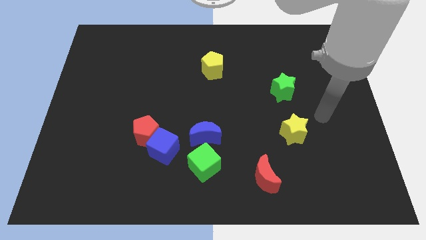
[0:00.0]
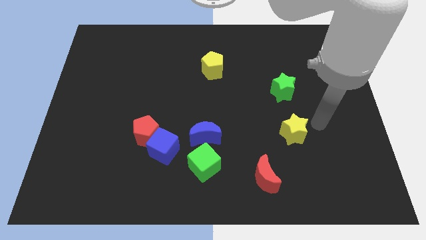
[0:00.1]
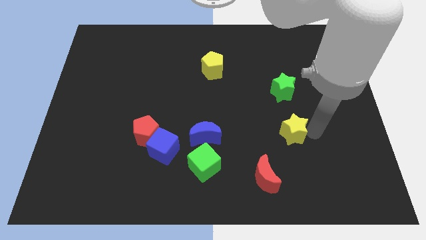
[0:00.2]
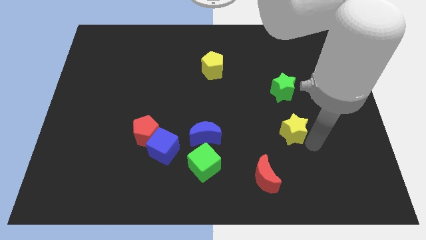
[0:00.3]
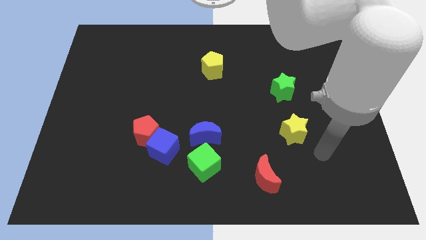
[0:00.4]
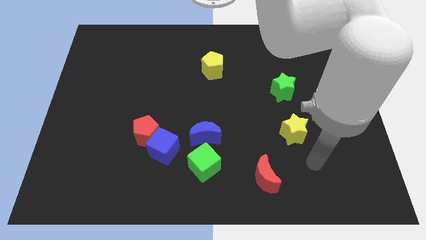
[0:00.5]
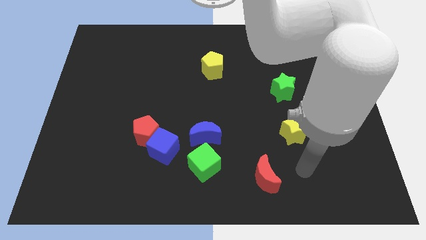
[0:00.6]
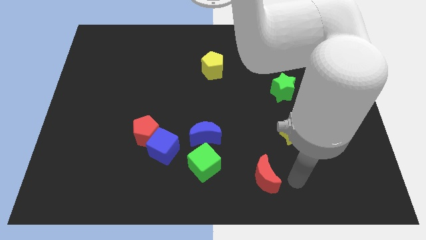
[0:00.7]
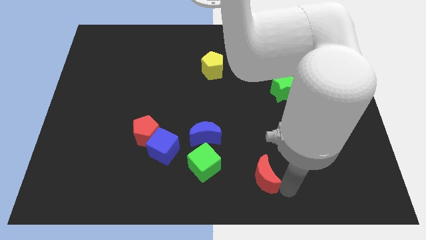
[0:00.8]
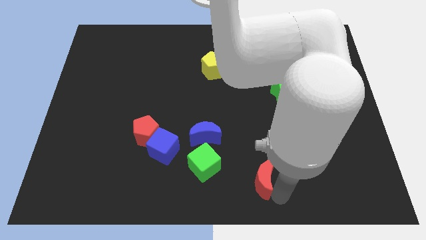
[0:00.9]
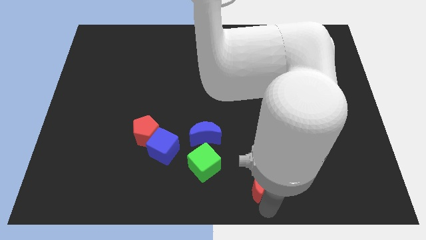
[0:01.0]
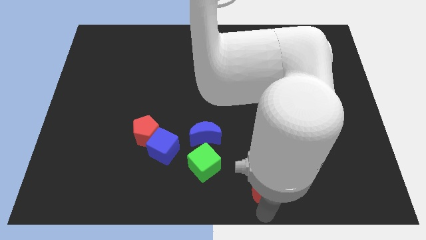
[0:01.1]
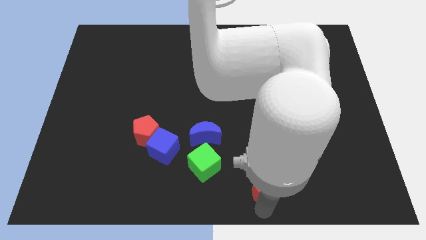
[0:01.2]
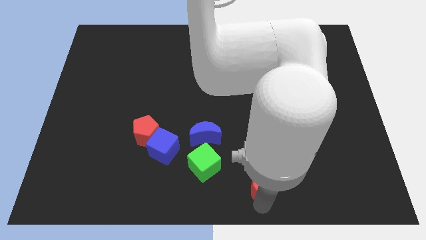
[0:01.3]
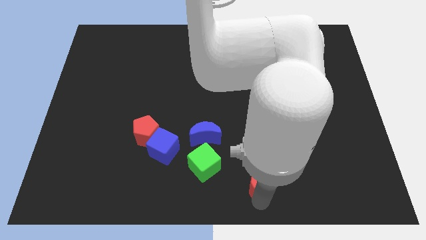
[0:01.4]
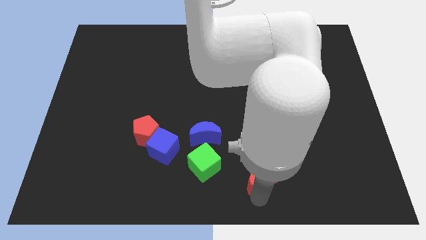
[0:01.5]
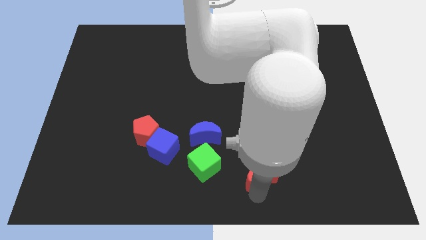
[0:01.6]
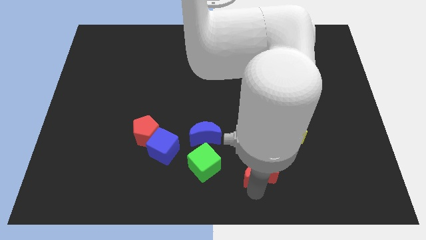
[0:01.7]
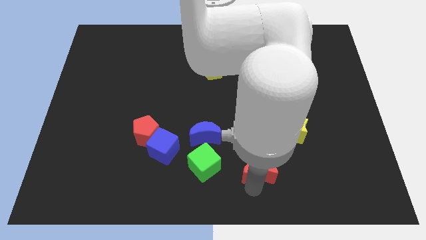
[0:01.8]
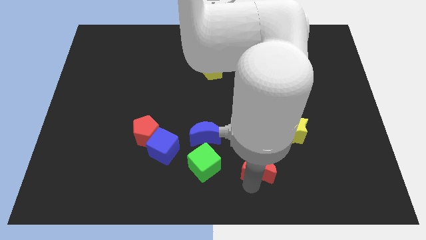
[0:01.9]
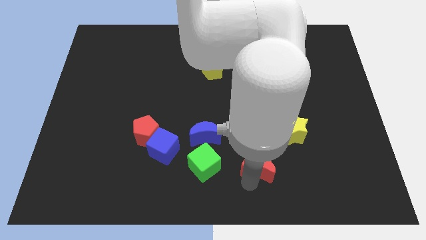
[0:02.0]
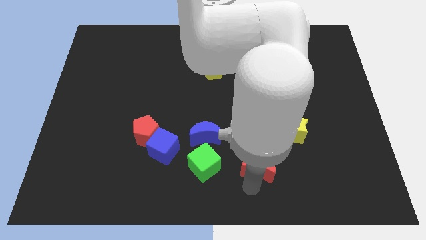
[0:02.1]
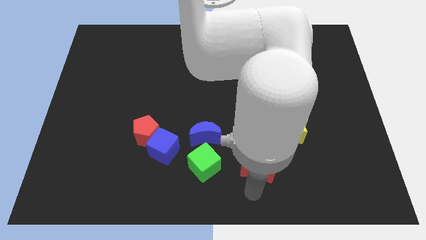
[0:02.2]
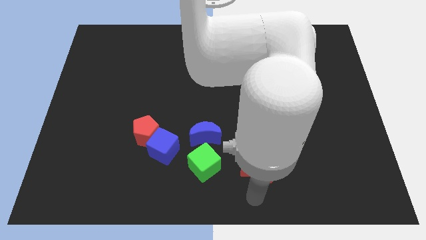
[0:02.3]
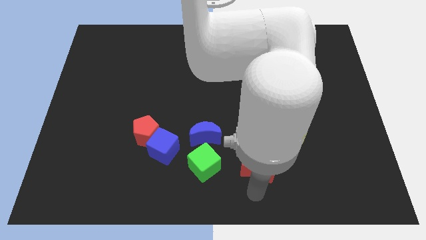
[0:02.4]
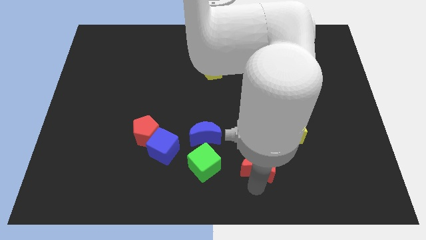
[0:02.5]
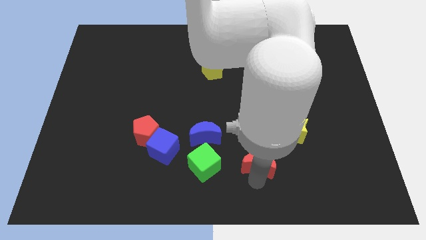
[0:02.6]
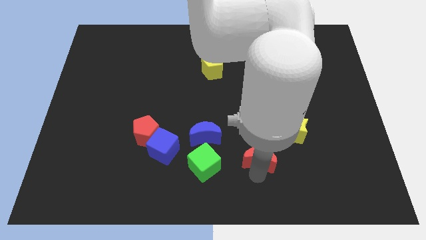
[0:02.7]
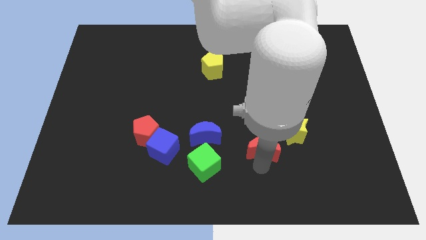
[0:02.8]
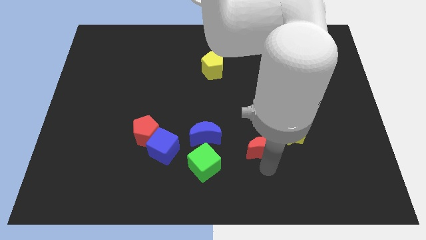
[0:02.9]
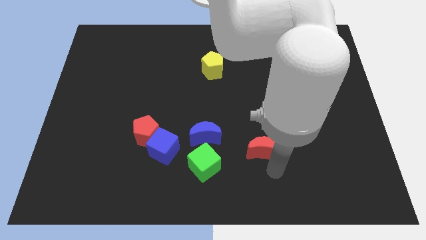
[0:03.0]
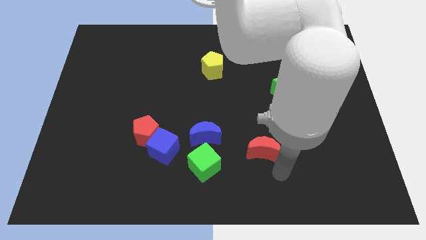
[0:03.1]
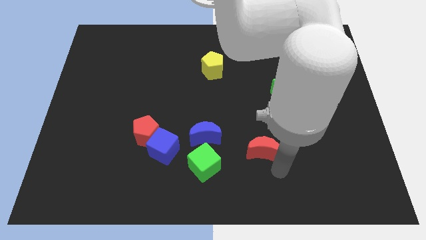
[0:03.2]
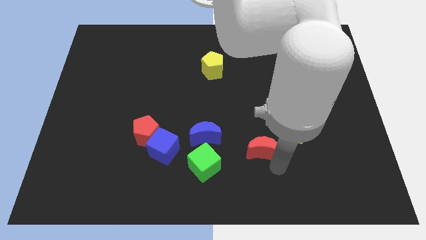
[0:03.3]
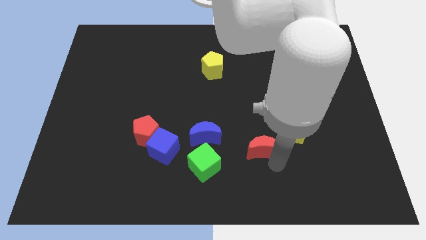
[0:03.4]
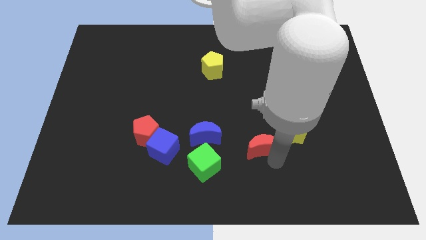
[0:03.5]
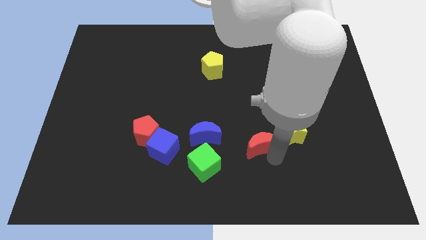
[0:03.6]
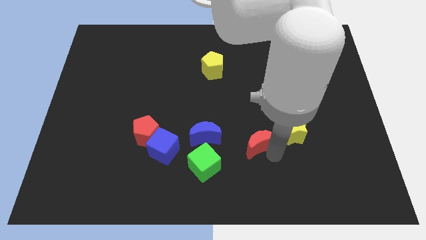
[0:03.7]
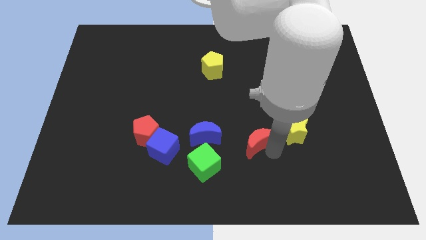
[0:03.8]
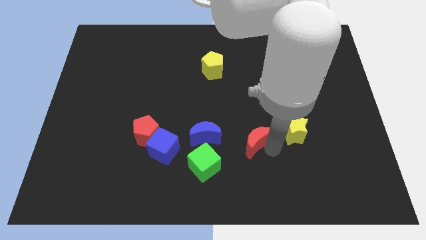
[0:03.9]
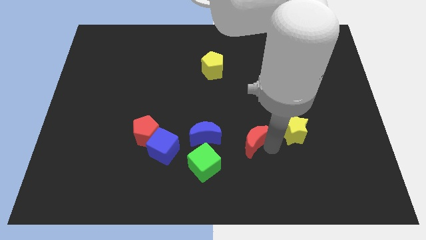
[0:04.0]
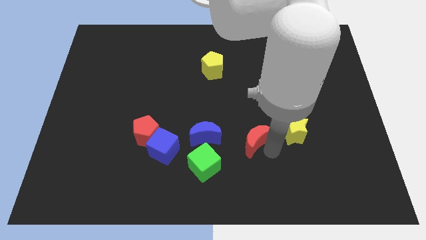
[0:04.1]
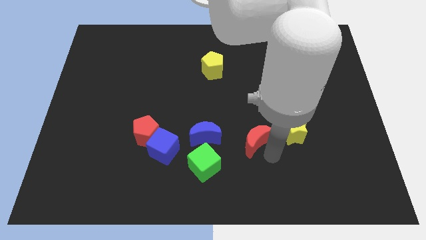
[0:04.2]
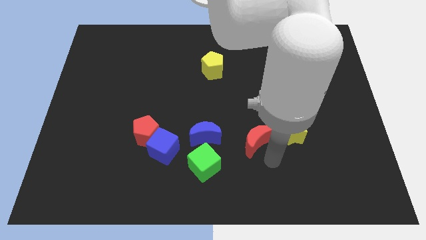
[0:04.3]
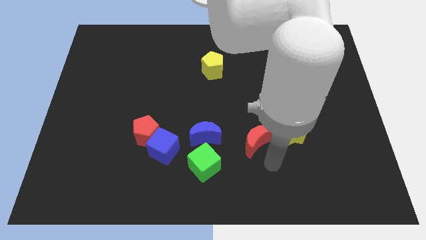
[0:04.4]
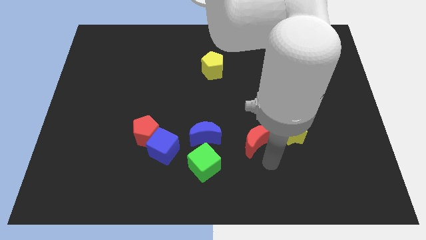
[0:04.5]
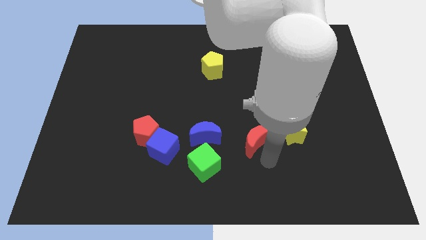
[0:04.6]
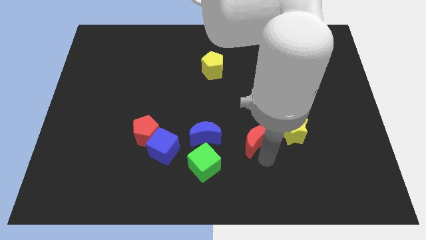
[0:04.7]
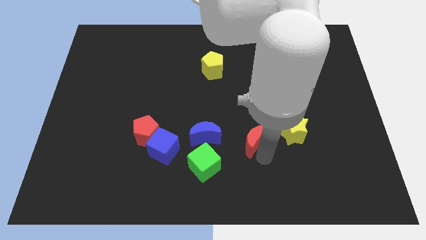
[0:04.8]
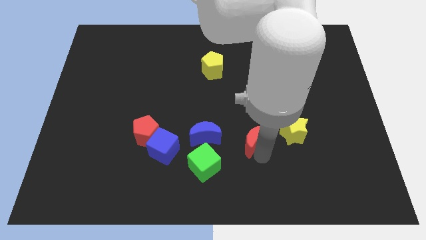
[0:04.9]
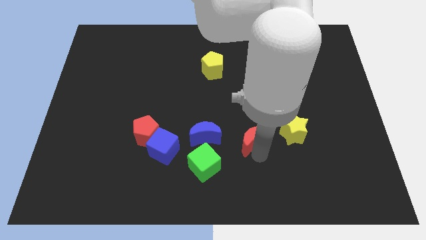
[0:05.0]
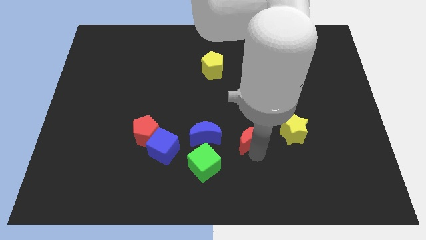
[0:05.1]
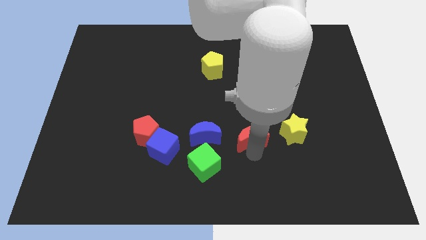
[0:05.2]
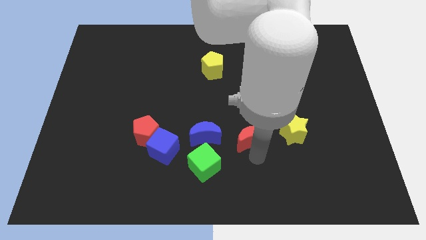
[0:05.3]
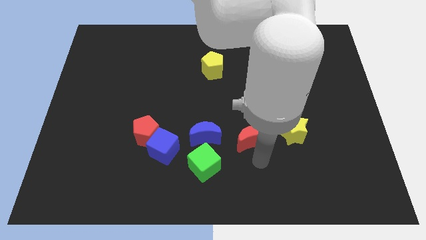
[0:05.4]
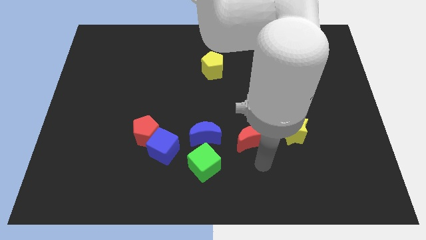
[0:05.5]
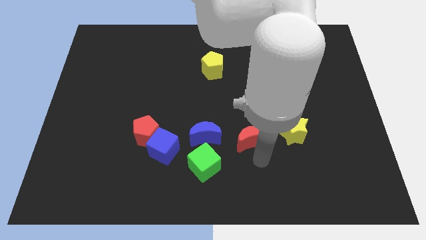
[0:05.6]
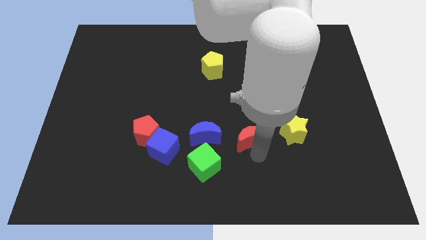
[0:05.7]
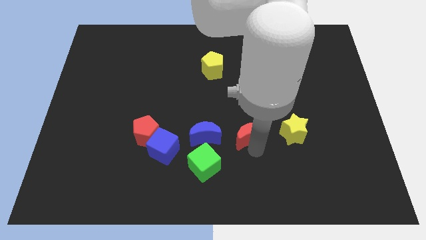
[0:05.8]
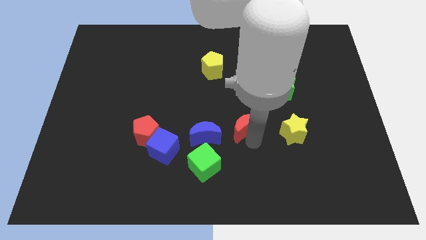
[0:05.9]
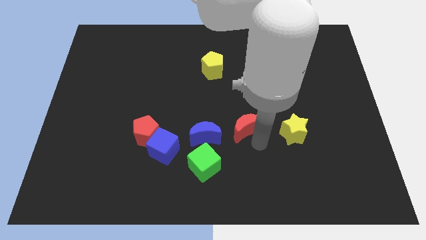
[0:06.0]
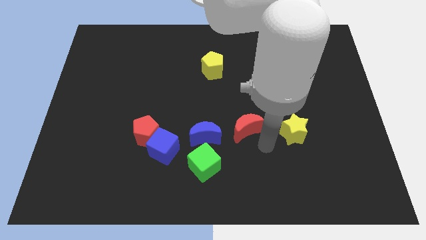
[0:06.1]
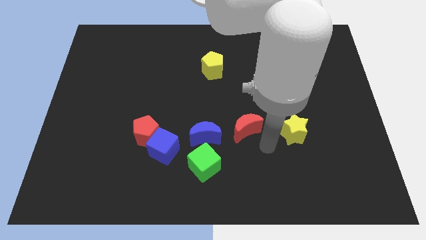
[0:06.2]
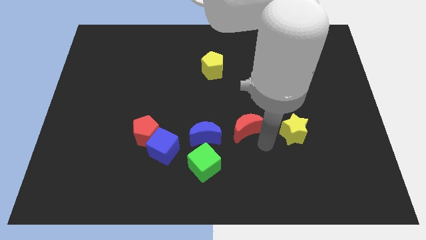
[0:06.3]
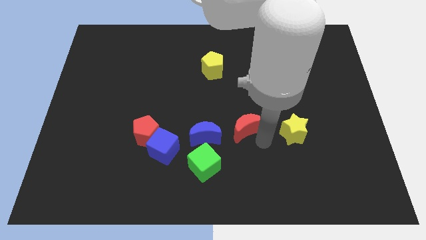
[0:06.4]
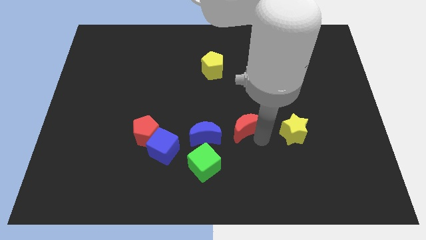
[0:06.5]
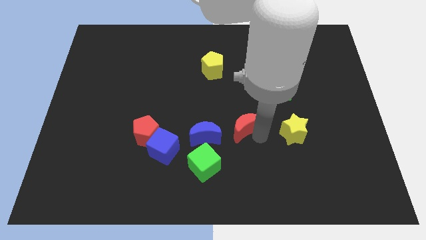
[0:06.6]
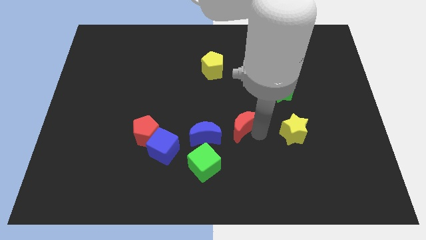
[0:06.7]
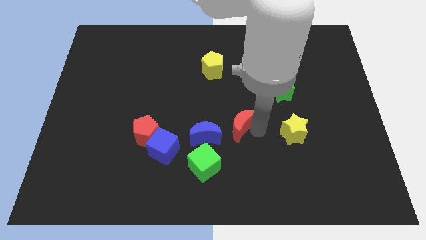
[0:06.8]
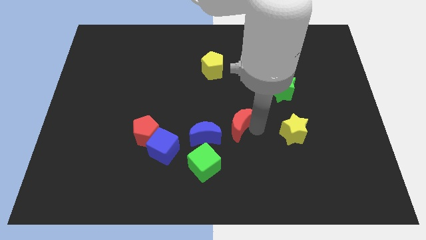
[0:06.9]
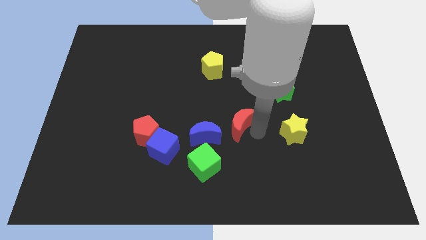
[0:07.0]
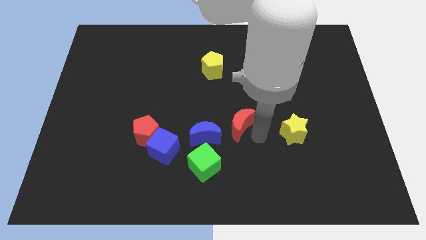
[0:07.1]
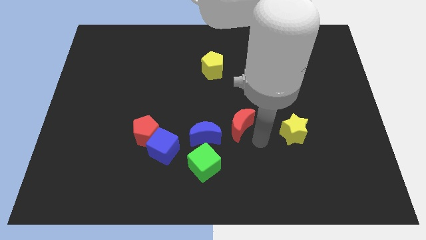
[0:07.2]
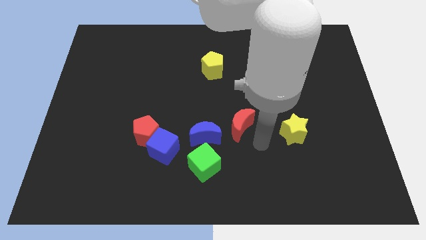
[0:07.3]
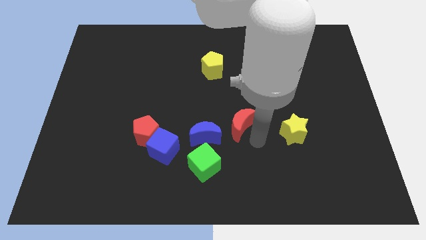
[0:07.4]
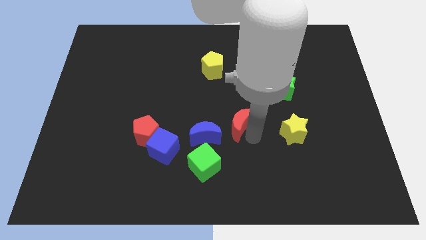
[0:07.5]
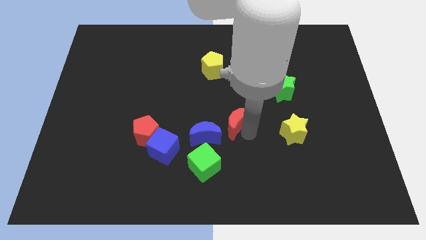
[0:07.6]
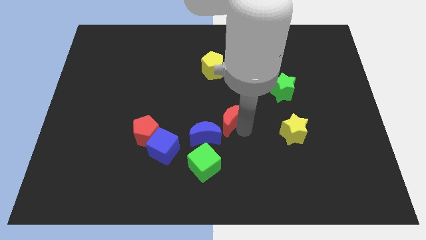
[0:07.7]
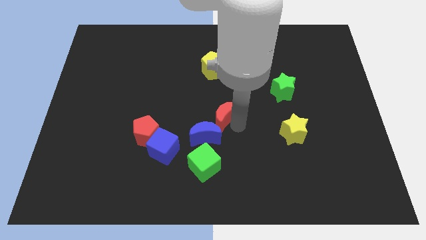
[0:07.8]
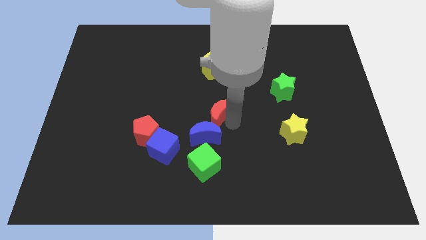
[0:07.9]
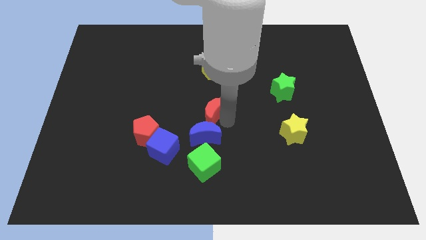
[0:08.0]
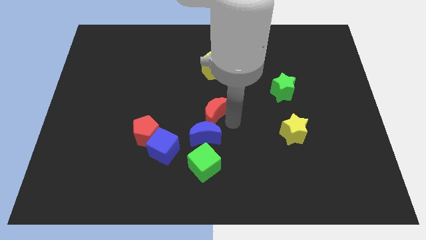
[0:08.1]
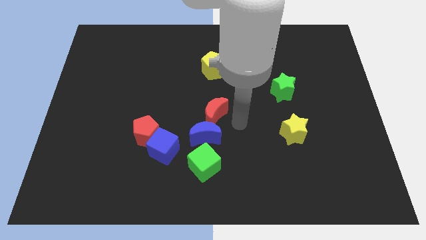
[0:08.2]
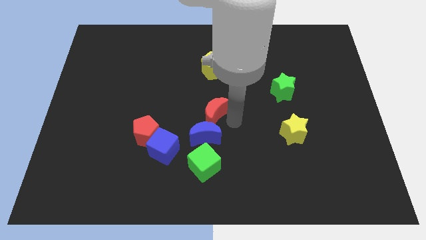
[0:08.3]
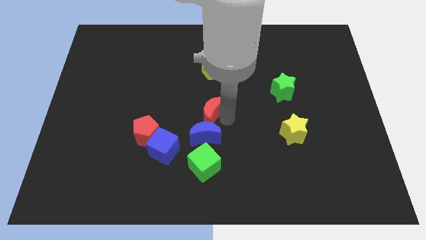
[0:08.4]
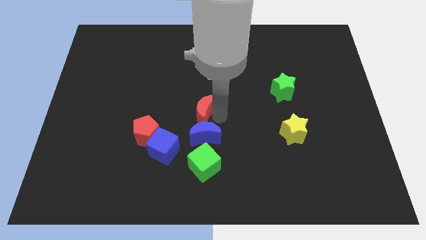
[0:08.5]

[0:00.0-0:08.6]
slide the red moon diagonally upwards and to the left
